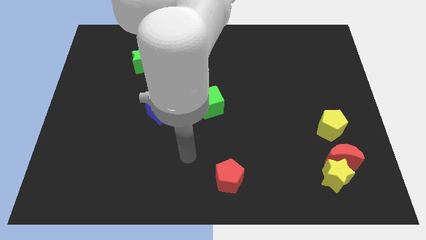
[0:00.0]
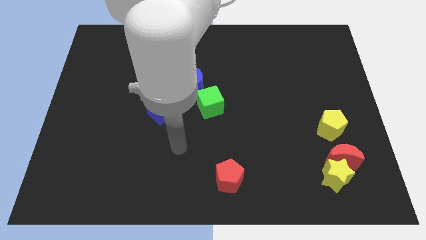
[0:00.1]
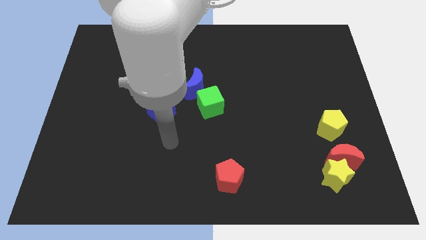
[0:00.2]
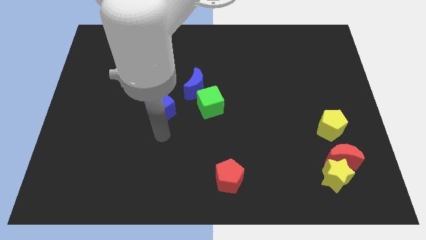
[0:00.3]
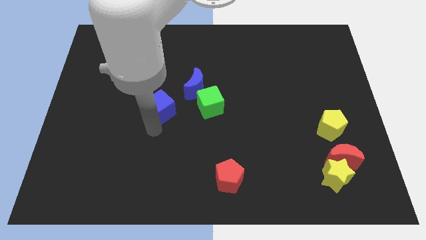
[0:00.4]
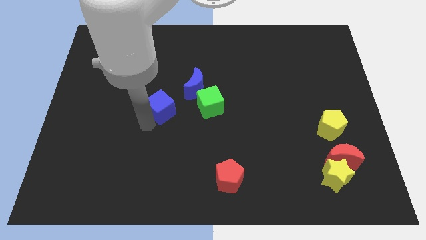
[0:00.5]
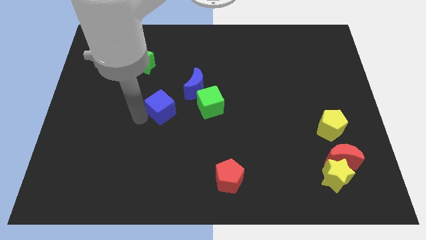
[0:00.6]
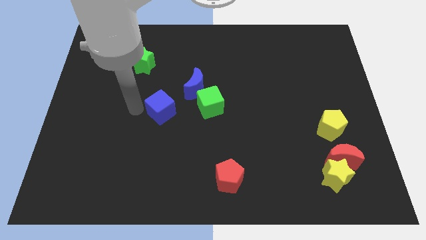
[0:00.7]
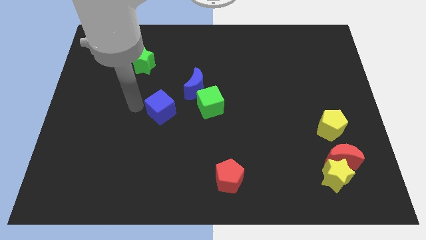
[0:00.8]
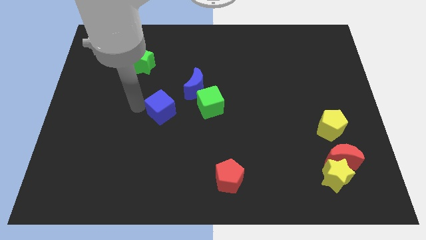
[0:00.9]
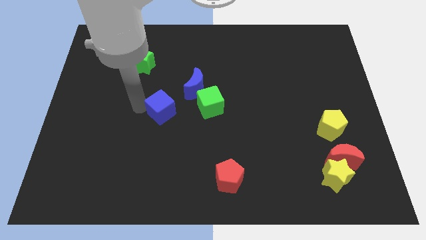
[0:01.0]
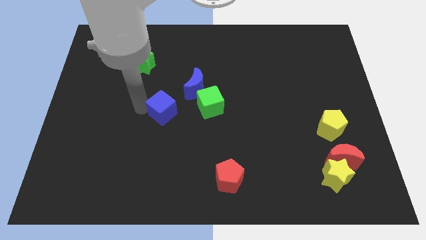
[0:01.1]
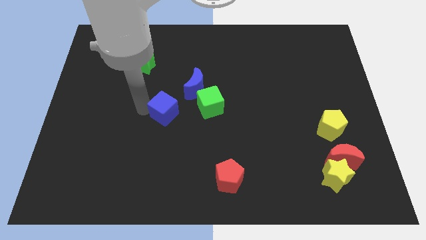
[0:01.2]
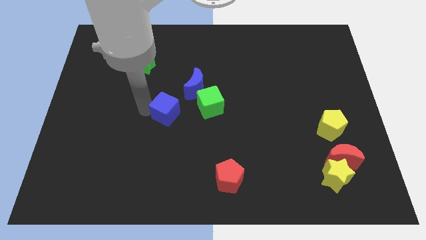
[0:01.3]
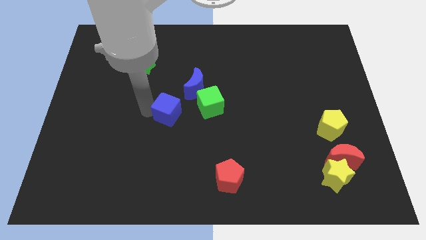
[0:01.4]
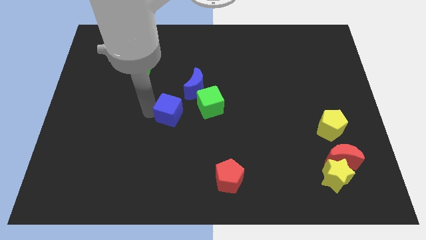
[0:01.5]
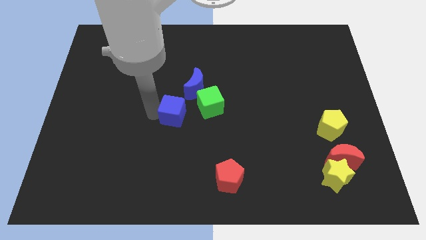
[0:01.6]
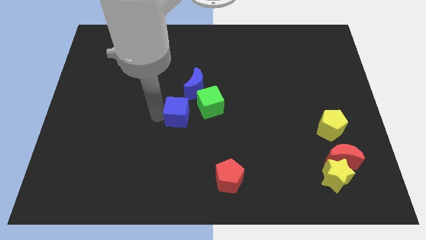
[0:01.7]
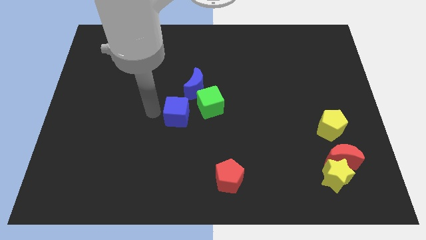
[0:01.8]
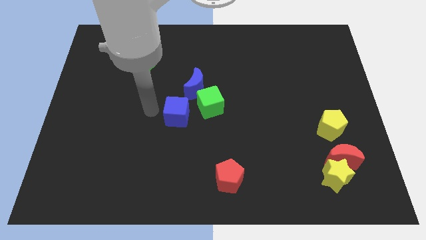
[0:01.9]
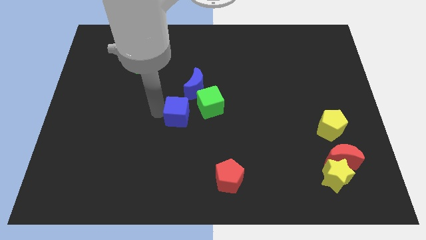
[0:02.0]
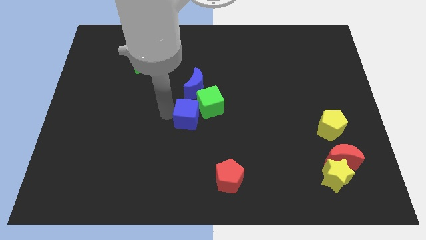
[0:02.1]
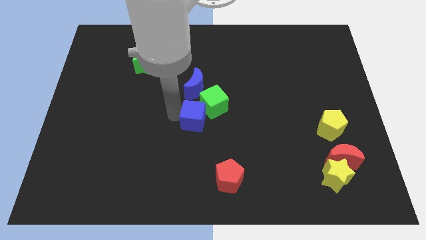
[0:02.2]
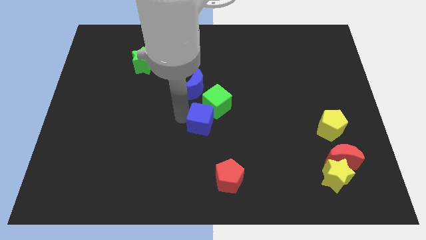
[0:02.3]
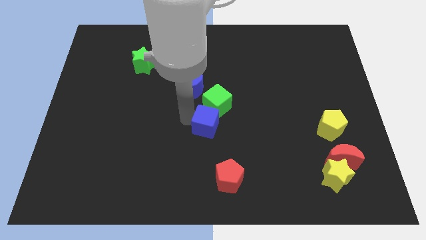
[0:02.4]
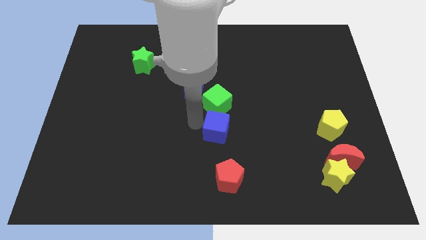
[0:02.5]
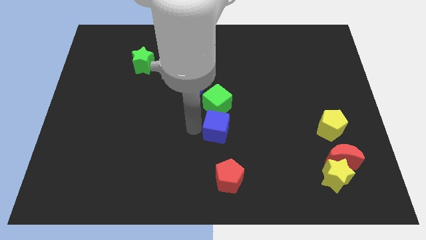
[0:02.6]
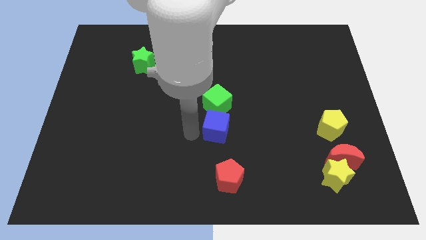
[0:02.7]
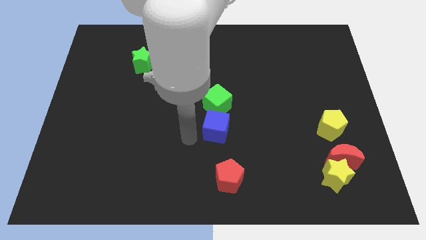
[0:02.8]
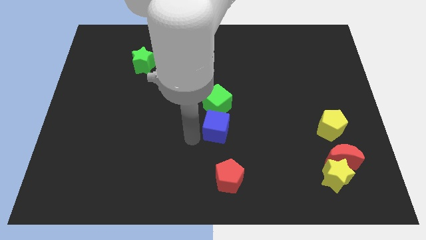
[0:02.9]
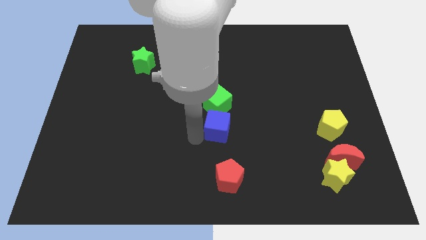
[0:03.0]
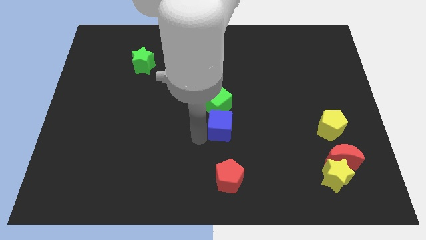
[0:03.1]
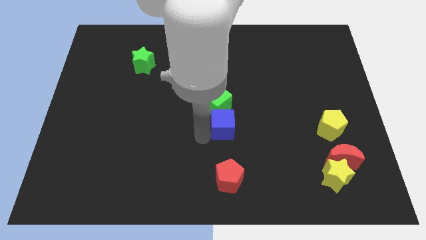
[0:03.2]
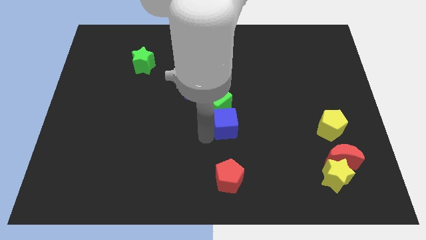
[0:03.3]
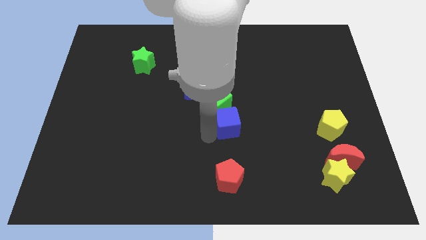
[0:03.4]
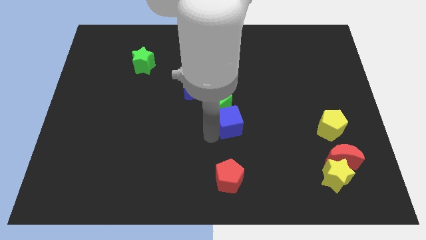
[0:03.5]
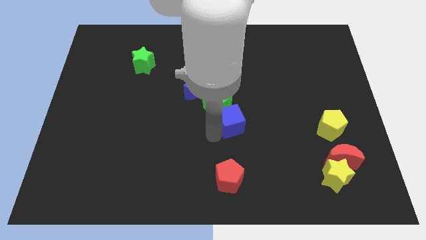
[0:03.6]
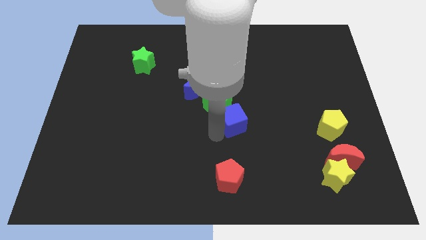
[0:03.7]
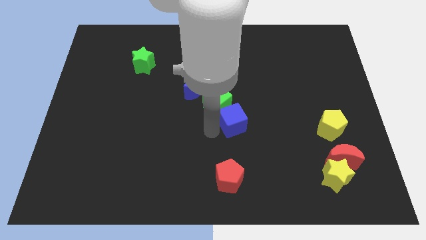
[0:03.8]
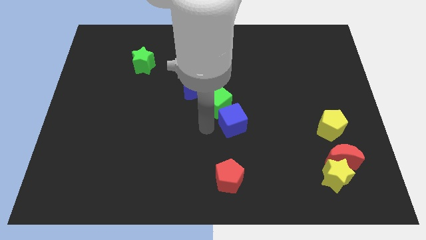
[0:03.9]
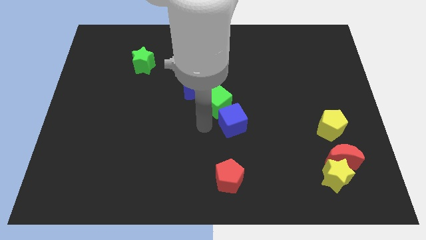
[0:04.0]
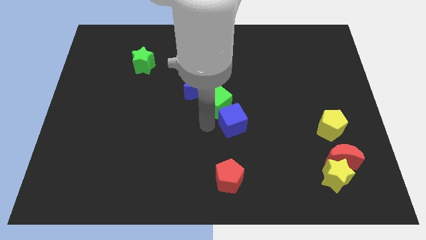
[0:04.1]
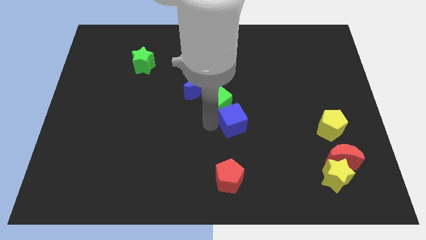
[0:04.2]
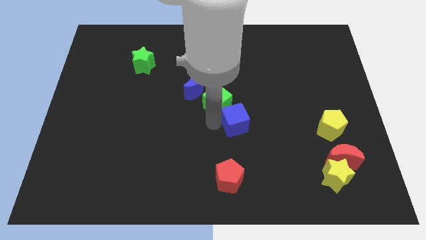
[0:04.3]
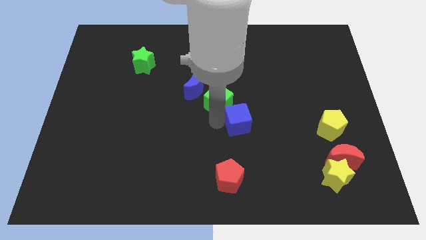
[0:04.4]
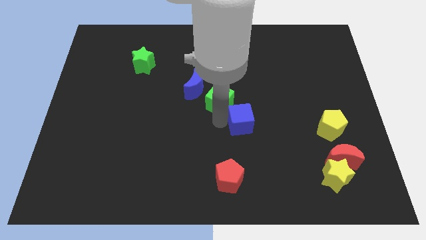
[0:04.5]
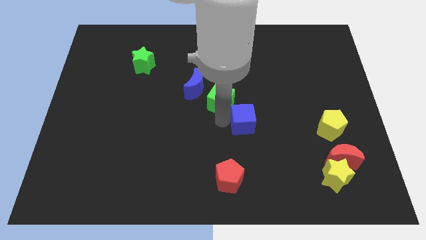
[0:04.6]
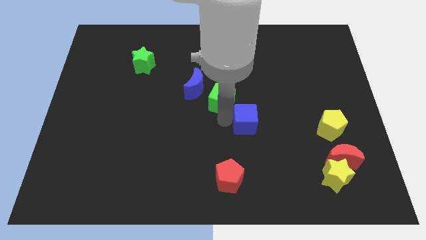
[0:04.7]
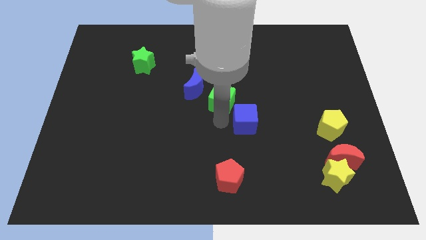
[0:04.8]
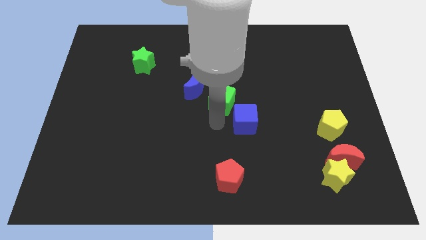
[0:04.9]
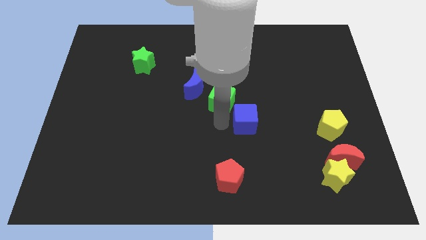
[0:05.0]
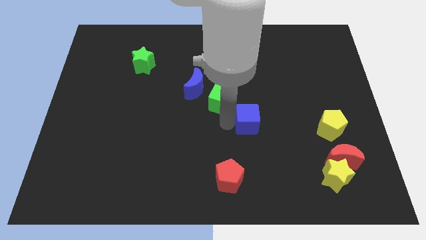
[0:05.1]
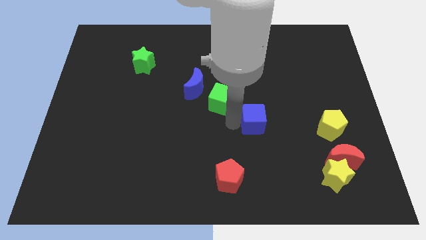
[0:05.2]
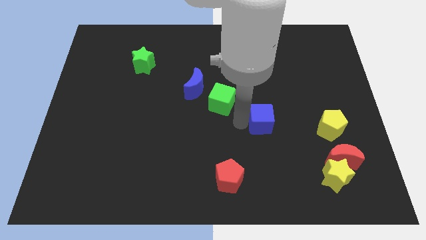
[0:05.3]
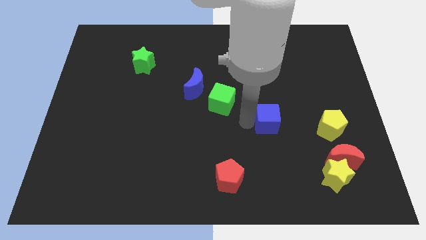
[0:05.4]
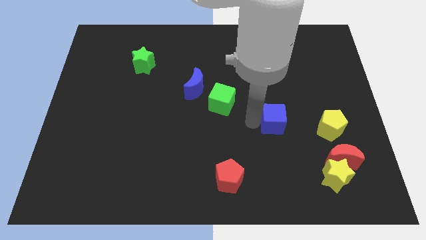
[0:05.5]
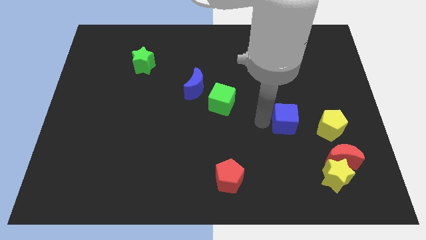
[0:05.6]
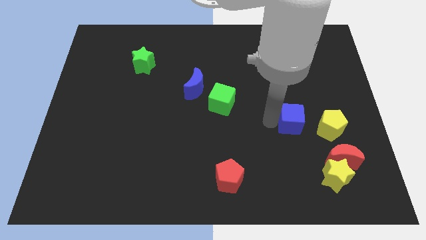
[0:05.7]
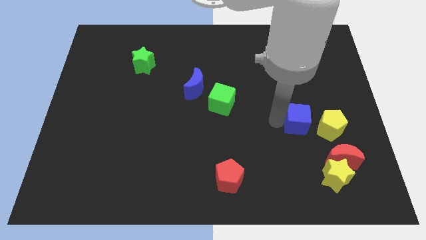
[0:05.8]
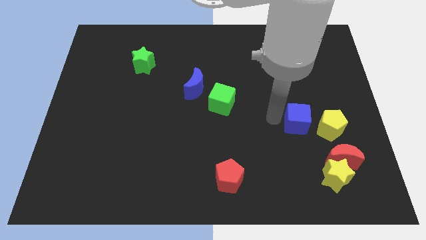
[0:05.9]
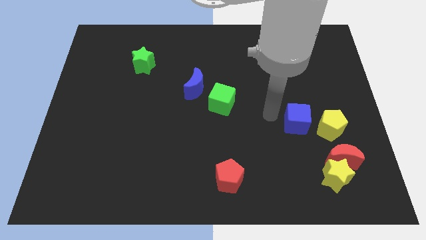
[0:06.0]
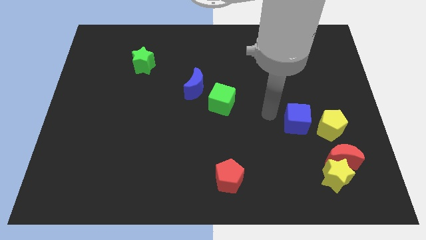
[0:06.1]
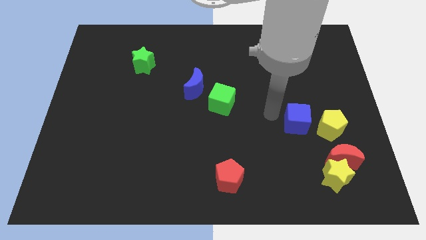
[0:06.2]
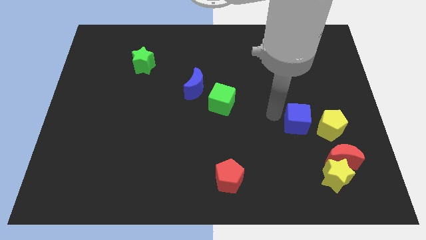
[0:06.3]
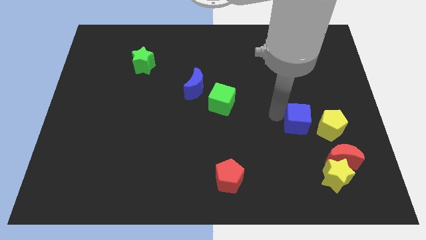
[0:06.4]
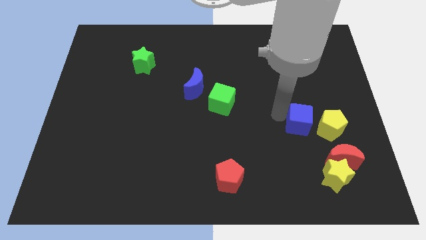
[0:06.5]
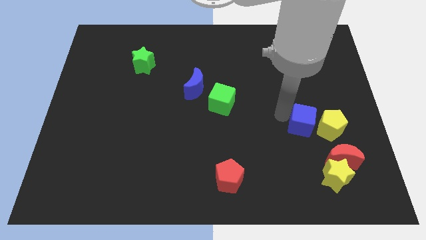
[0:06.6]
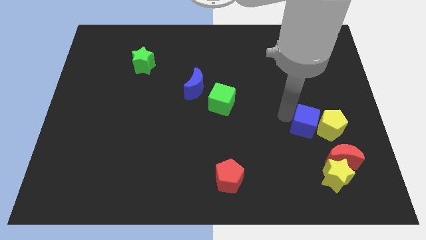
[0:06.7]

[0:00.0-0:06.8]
move the blue cube to the yellow pentagon
